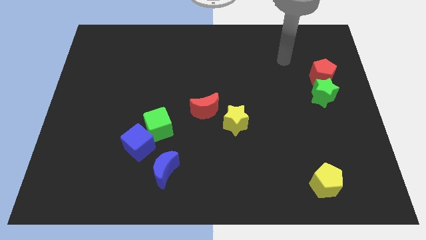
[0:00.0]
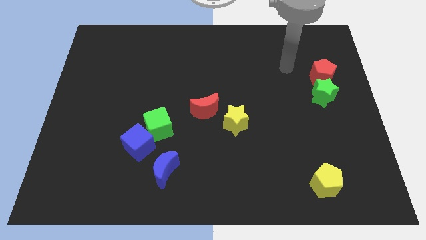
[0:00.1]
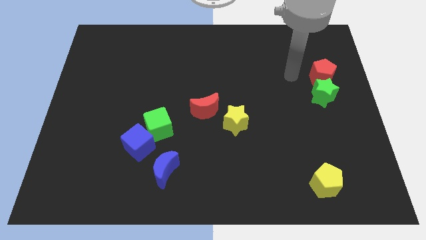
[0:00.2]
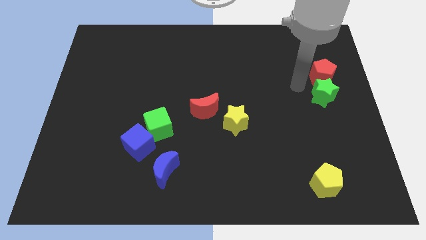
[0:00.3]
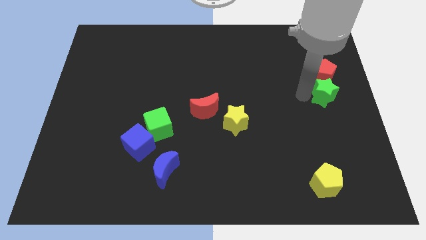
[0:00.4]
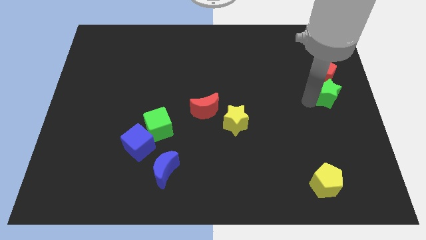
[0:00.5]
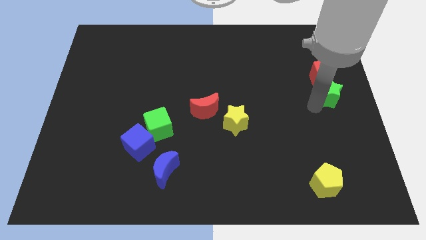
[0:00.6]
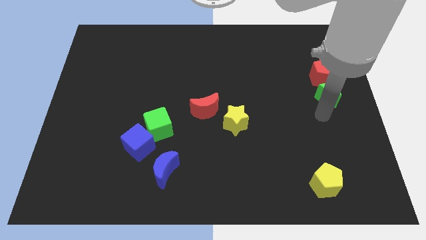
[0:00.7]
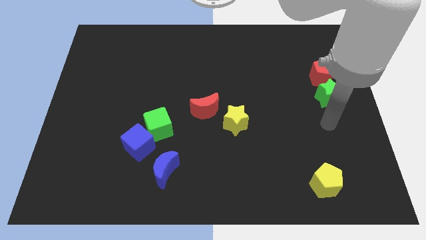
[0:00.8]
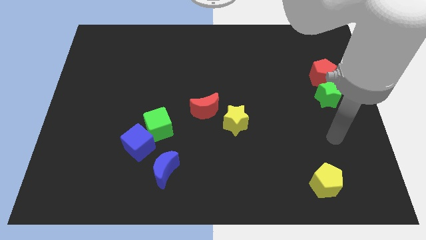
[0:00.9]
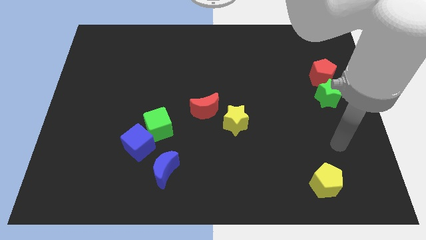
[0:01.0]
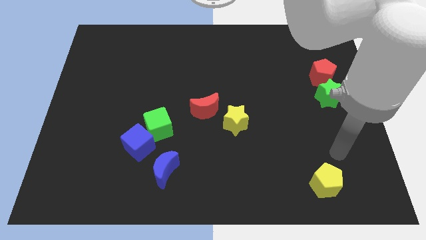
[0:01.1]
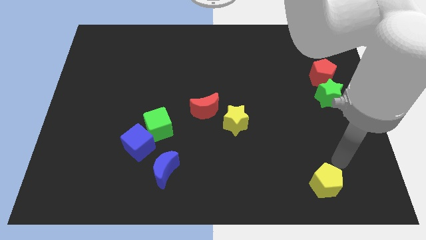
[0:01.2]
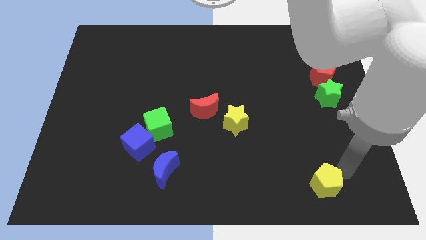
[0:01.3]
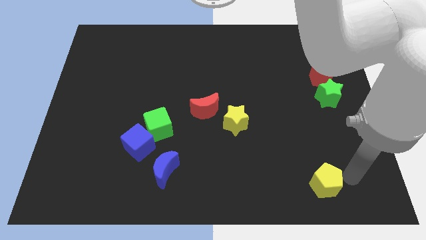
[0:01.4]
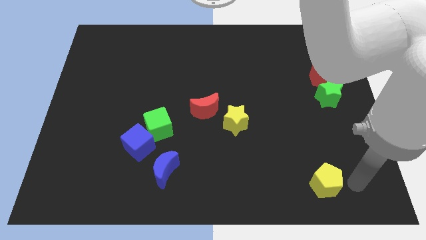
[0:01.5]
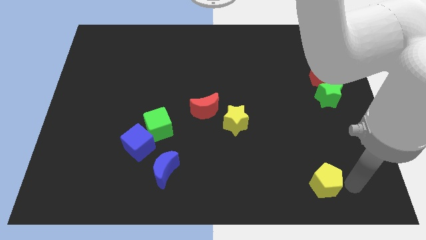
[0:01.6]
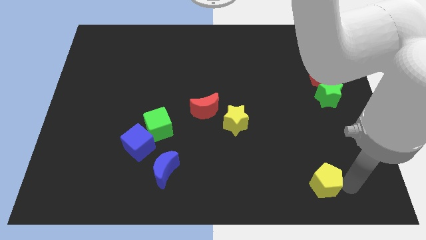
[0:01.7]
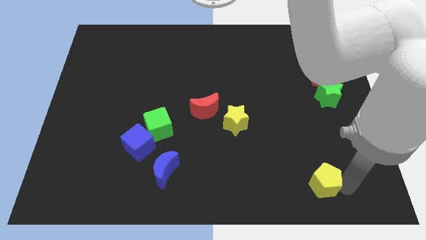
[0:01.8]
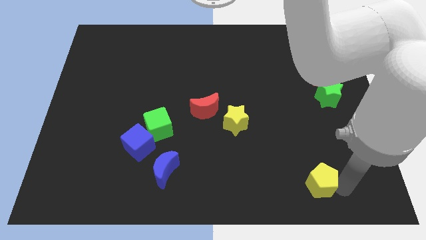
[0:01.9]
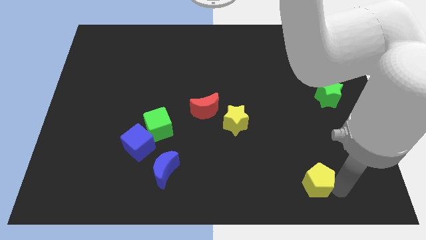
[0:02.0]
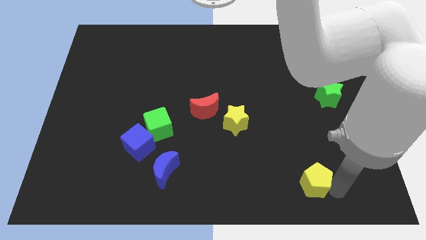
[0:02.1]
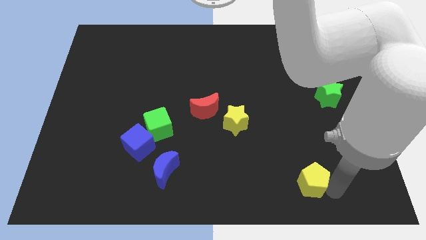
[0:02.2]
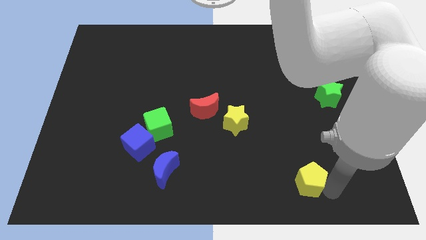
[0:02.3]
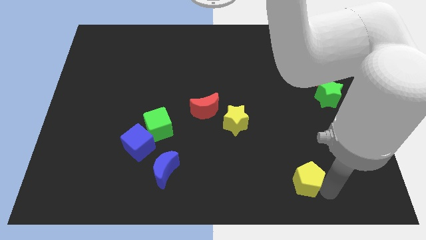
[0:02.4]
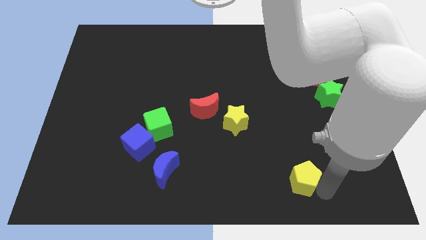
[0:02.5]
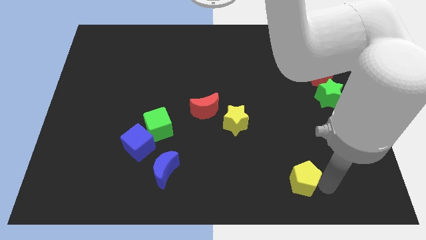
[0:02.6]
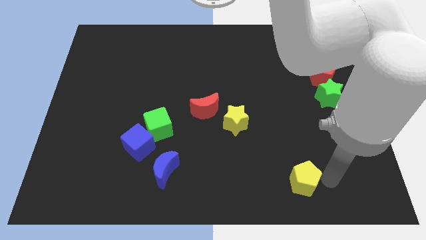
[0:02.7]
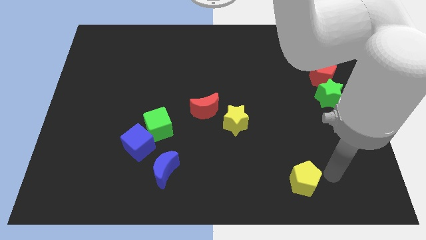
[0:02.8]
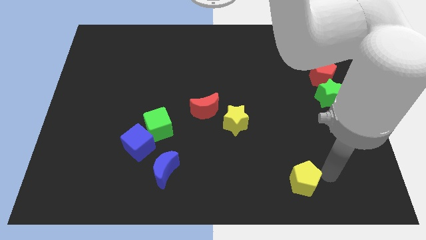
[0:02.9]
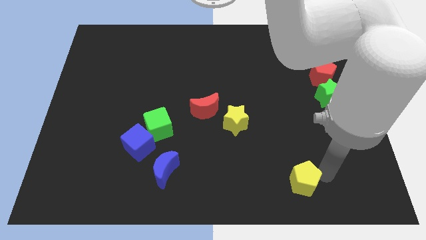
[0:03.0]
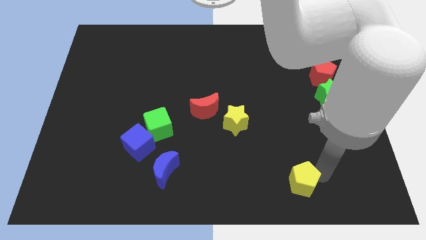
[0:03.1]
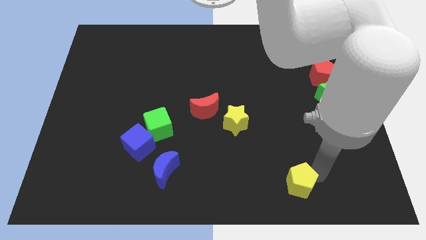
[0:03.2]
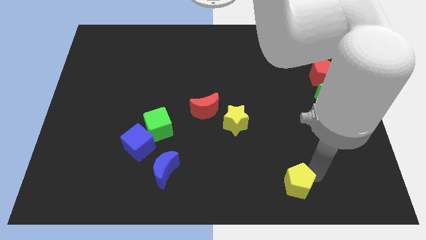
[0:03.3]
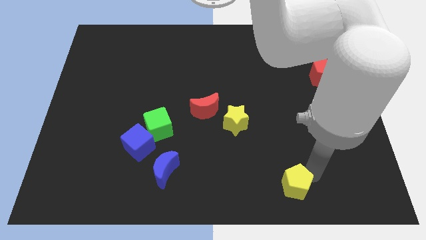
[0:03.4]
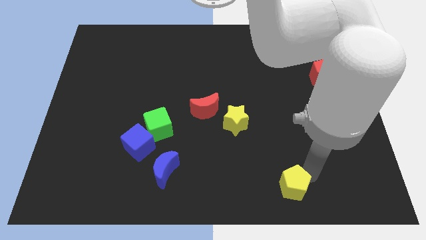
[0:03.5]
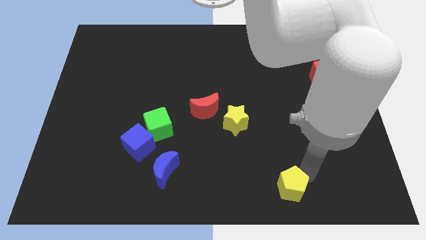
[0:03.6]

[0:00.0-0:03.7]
slightly push the yellow pentagon to the left

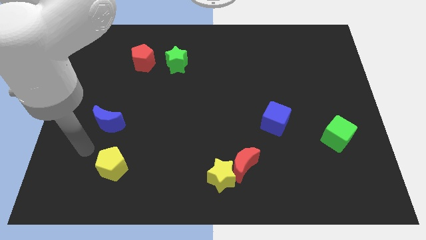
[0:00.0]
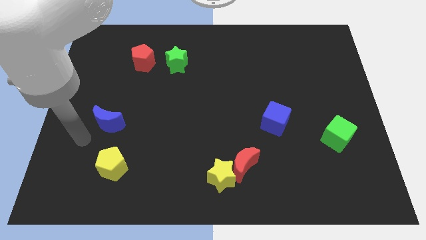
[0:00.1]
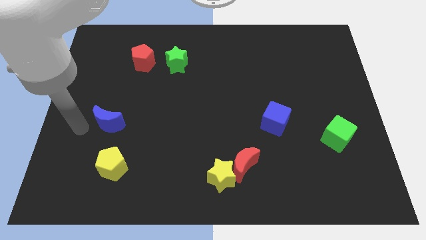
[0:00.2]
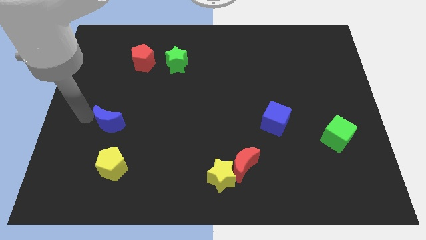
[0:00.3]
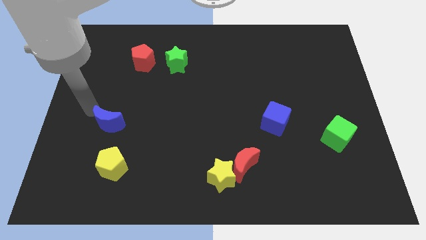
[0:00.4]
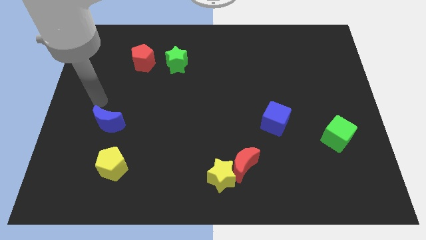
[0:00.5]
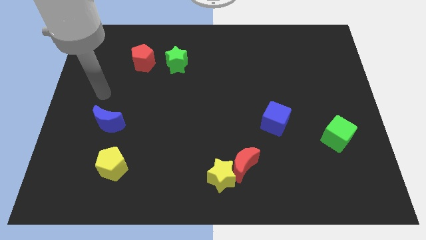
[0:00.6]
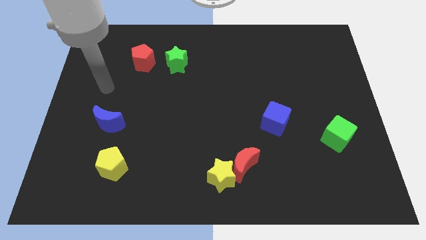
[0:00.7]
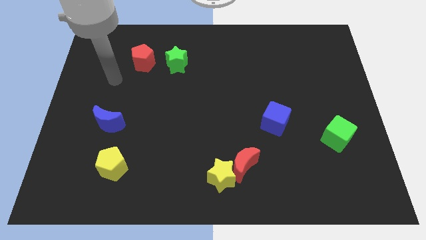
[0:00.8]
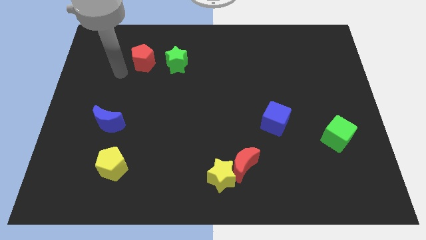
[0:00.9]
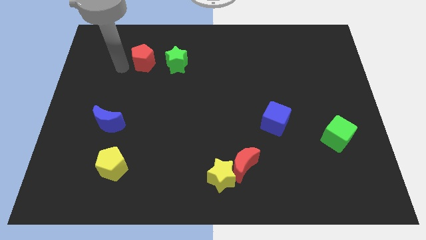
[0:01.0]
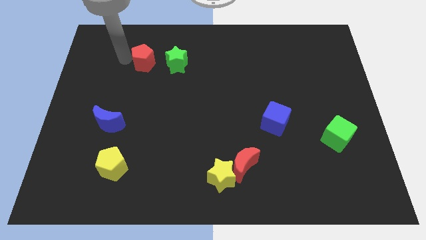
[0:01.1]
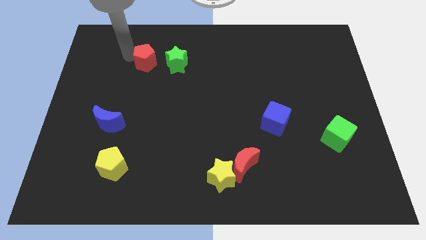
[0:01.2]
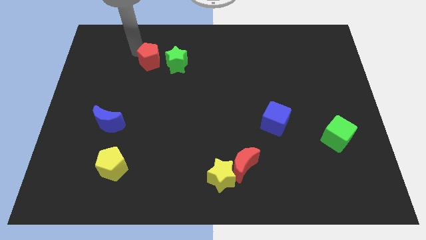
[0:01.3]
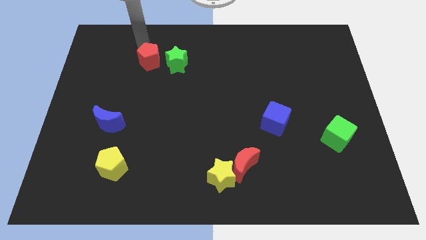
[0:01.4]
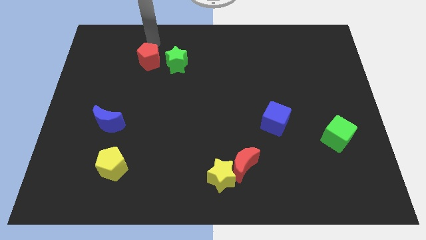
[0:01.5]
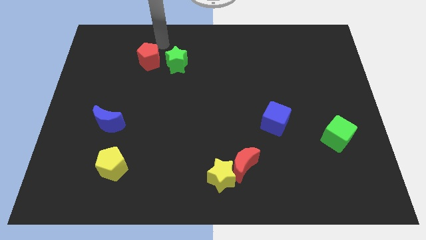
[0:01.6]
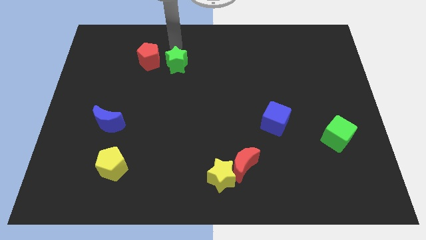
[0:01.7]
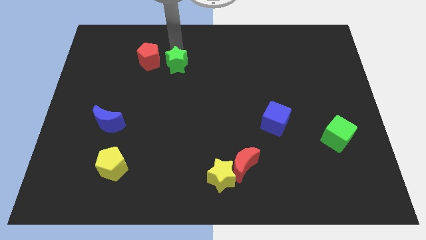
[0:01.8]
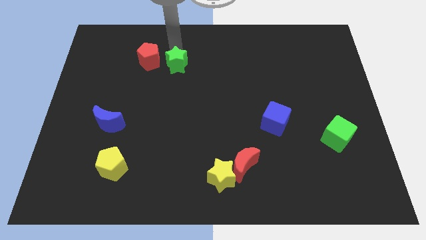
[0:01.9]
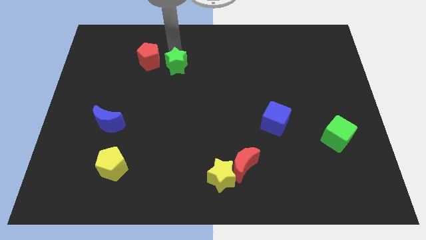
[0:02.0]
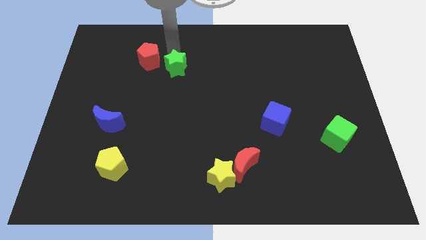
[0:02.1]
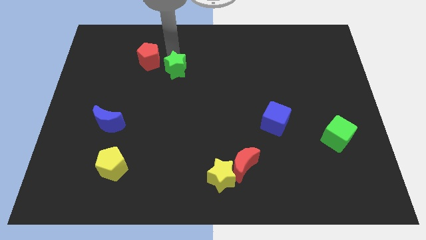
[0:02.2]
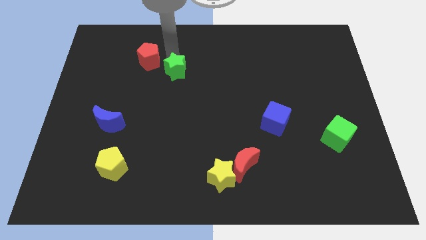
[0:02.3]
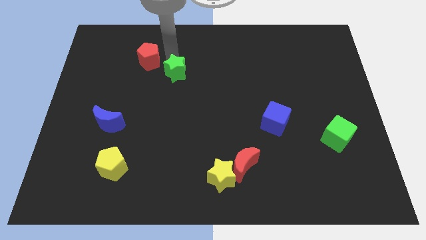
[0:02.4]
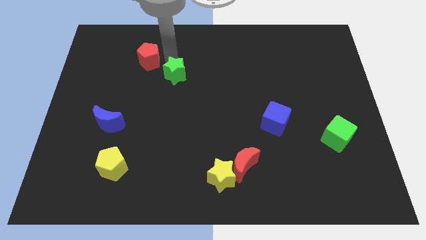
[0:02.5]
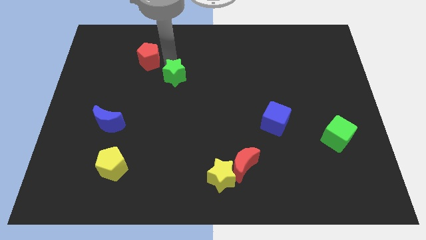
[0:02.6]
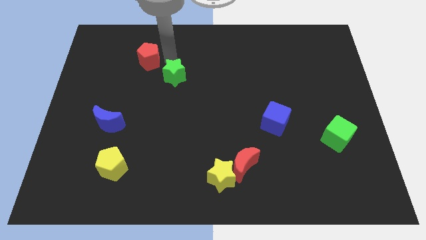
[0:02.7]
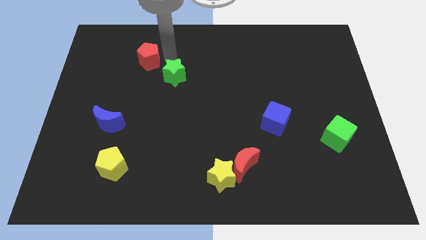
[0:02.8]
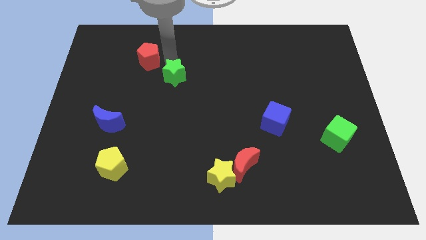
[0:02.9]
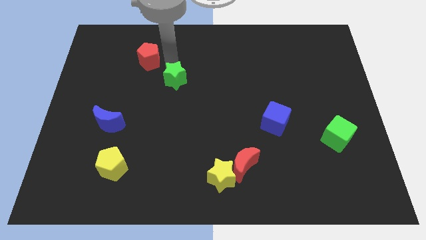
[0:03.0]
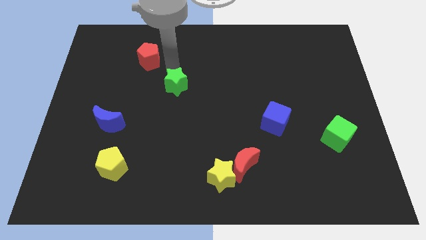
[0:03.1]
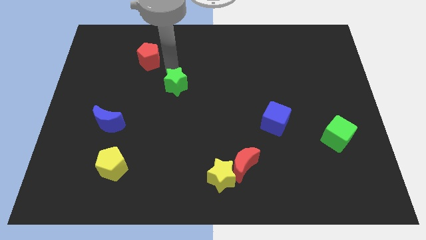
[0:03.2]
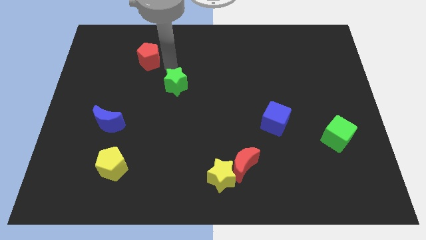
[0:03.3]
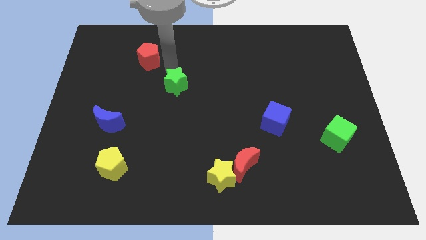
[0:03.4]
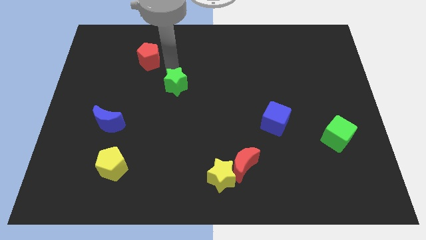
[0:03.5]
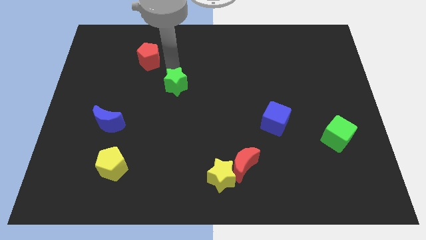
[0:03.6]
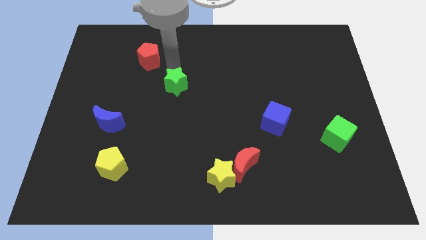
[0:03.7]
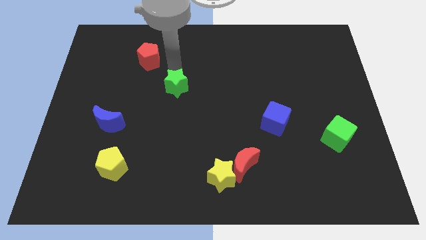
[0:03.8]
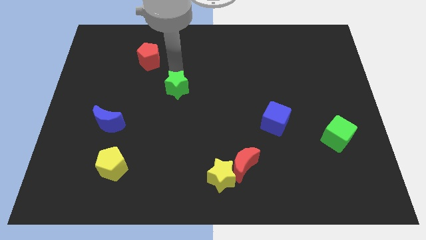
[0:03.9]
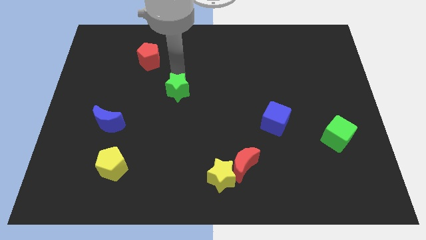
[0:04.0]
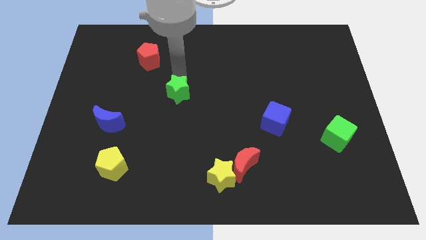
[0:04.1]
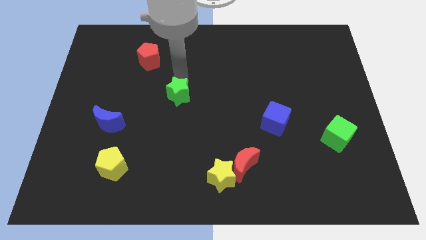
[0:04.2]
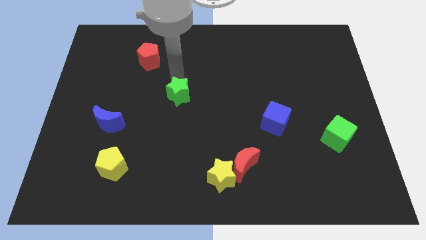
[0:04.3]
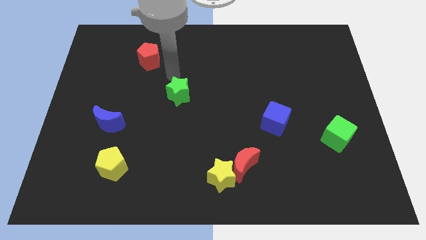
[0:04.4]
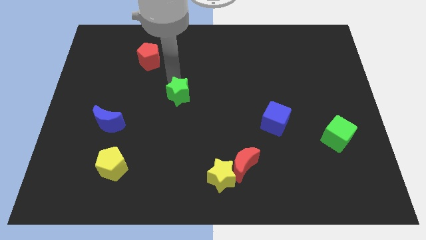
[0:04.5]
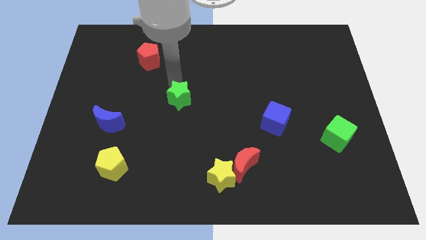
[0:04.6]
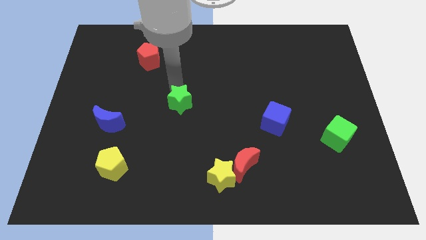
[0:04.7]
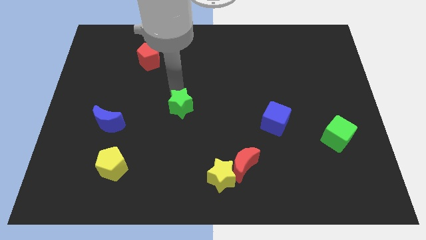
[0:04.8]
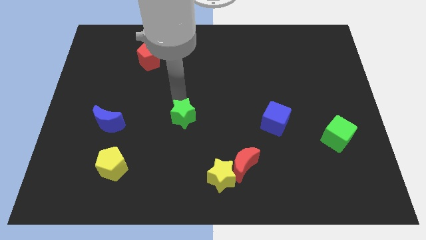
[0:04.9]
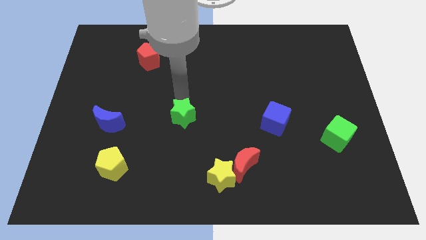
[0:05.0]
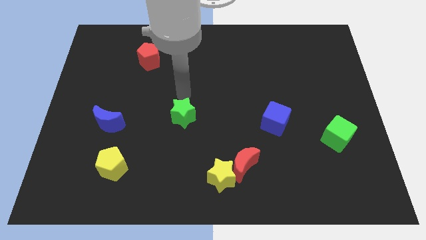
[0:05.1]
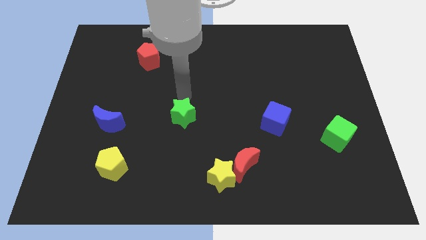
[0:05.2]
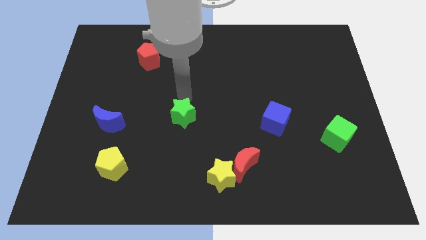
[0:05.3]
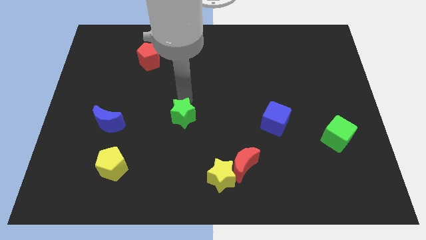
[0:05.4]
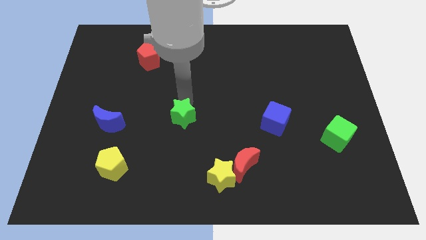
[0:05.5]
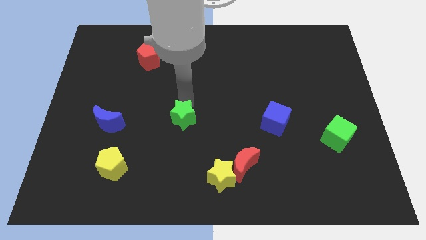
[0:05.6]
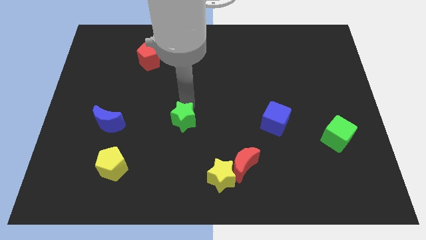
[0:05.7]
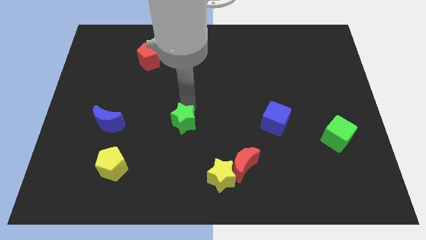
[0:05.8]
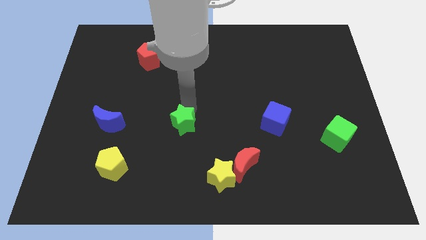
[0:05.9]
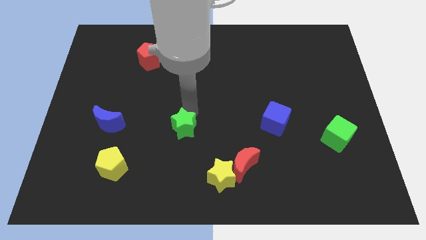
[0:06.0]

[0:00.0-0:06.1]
move the green star downwards
